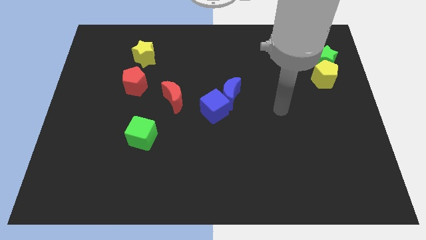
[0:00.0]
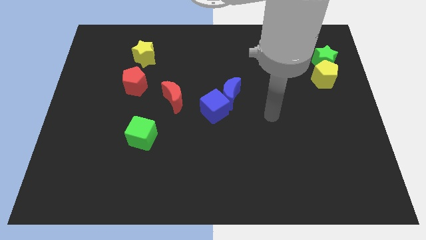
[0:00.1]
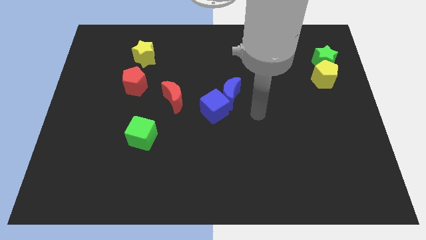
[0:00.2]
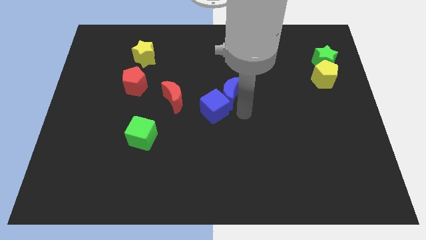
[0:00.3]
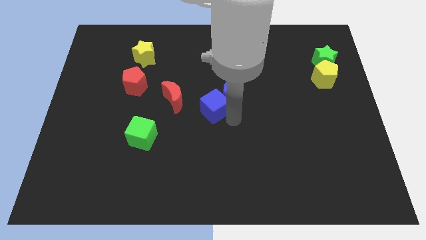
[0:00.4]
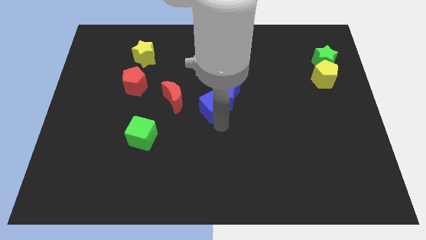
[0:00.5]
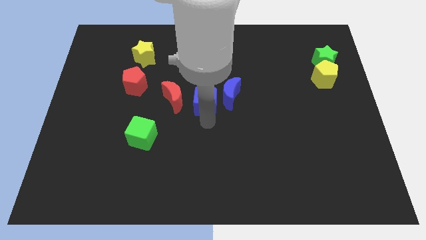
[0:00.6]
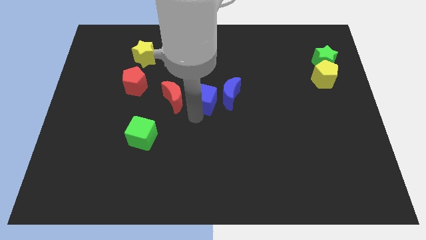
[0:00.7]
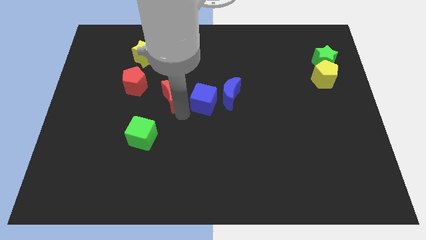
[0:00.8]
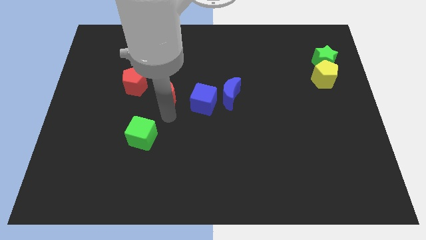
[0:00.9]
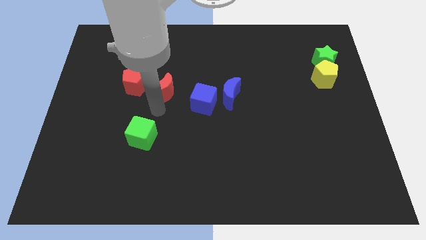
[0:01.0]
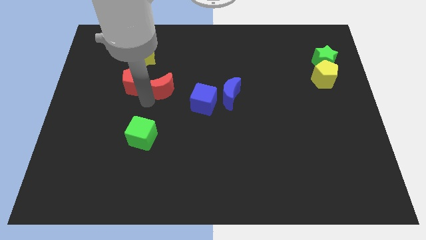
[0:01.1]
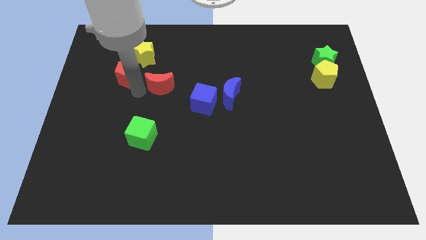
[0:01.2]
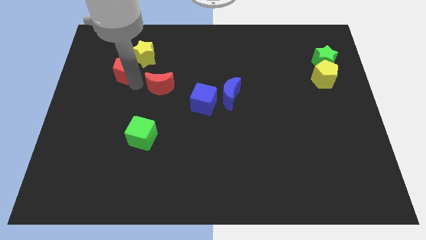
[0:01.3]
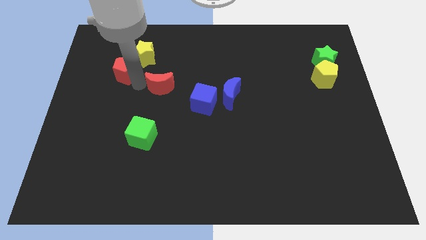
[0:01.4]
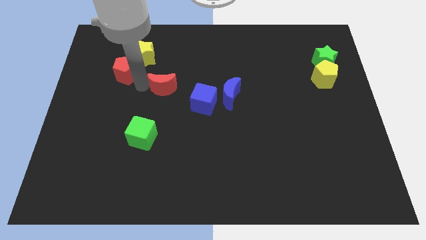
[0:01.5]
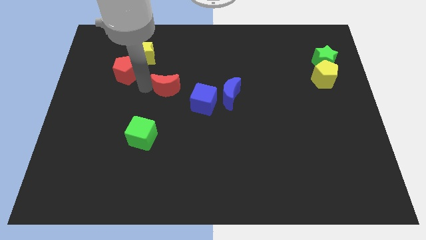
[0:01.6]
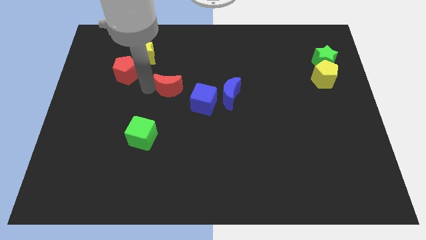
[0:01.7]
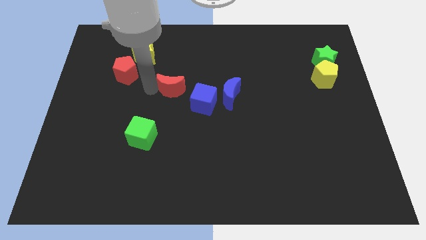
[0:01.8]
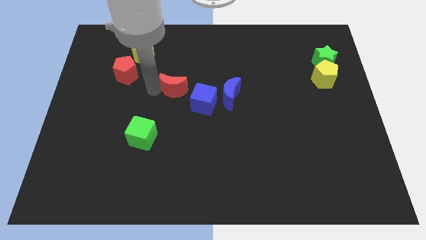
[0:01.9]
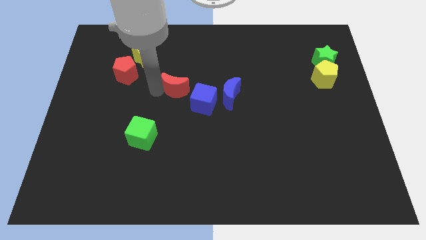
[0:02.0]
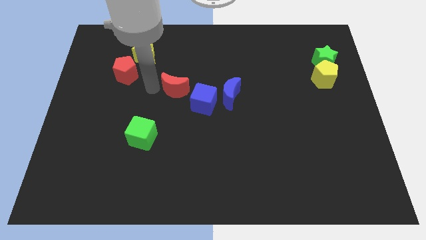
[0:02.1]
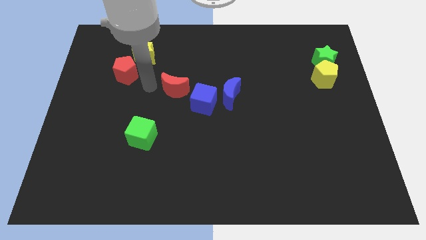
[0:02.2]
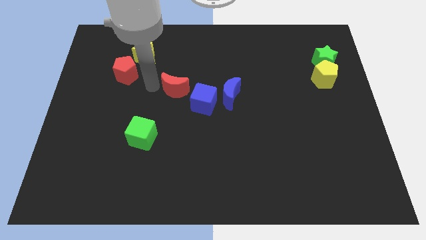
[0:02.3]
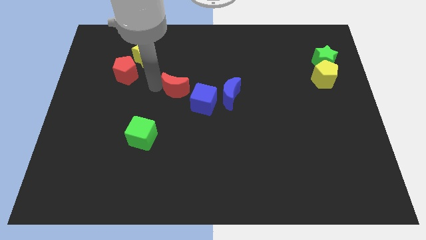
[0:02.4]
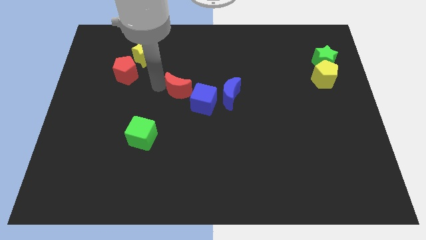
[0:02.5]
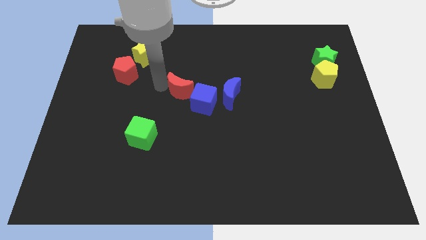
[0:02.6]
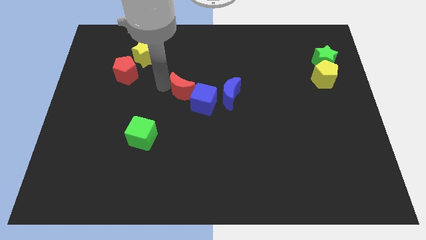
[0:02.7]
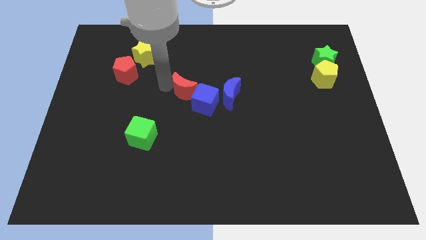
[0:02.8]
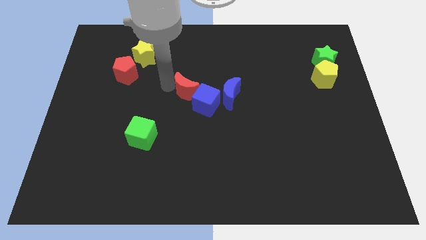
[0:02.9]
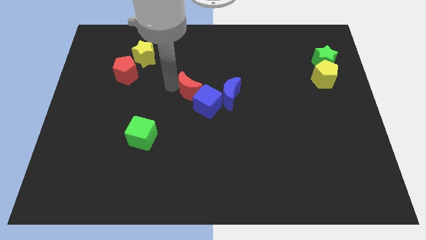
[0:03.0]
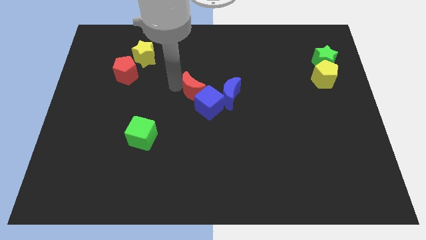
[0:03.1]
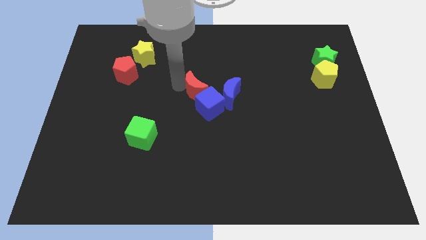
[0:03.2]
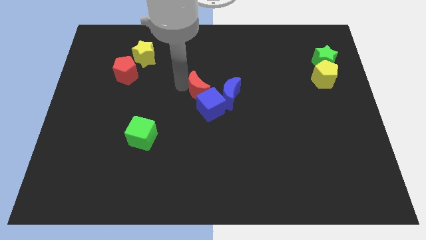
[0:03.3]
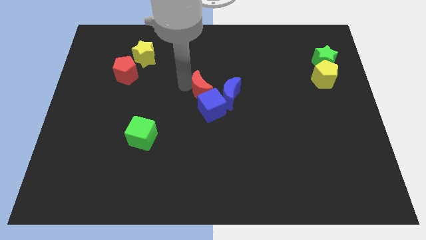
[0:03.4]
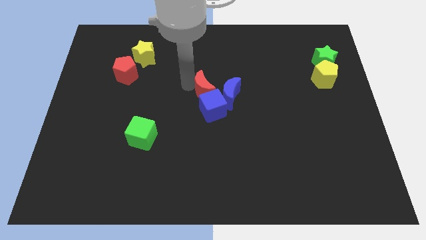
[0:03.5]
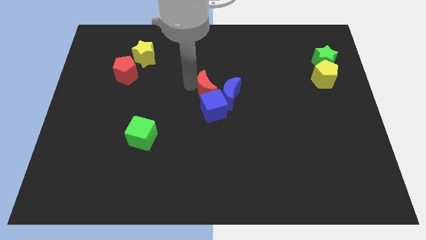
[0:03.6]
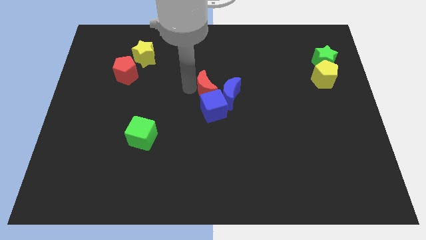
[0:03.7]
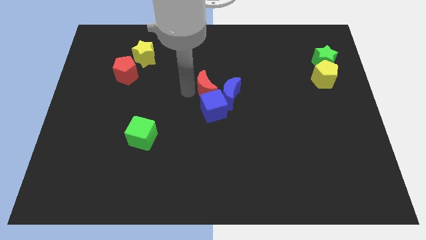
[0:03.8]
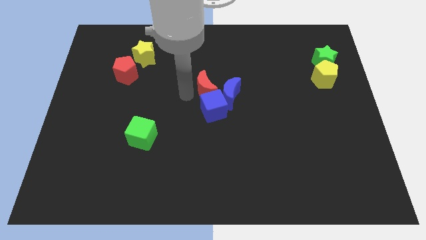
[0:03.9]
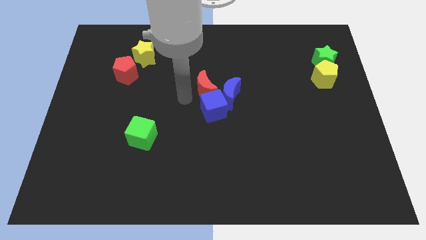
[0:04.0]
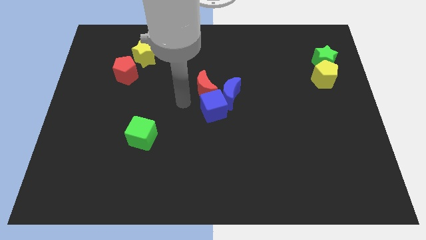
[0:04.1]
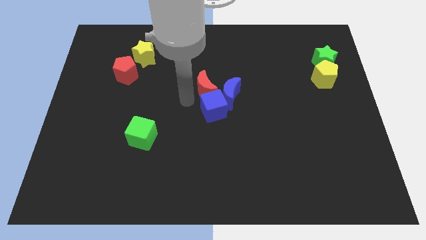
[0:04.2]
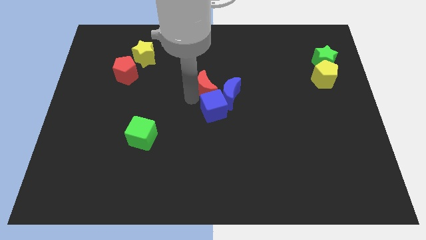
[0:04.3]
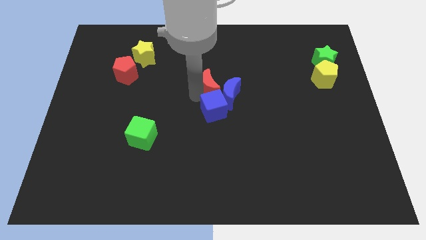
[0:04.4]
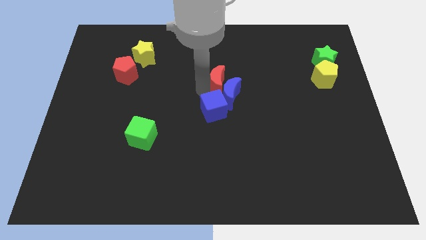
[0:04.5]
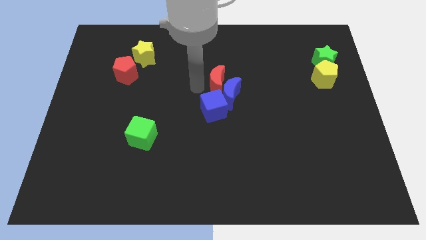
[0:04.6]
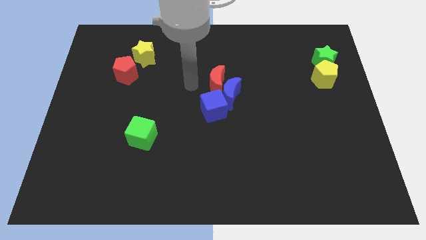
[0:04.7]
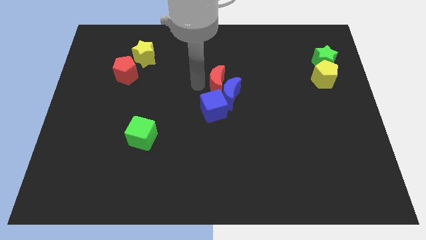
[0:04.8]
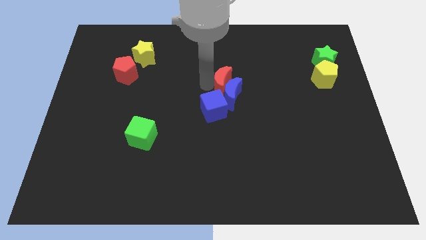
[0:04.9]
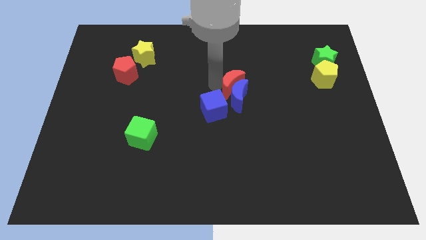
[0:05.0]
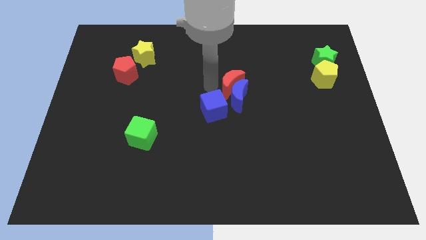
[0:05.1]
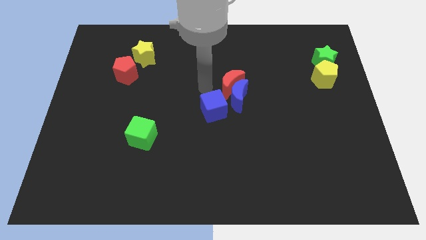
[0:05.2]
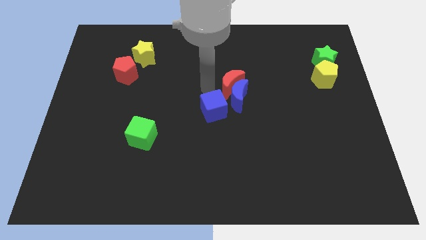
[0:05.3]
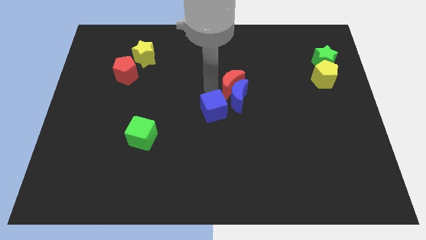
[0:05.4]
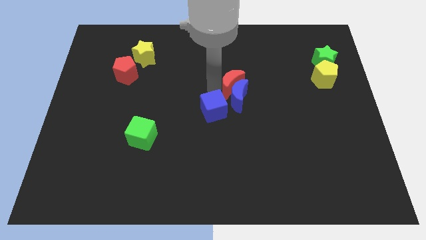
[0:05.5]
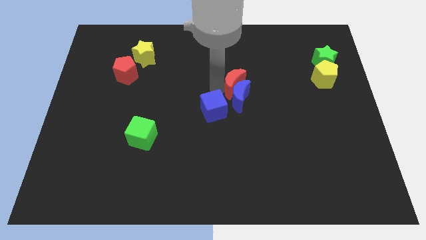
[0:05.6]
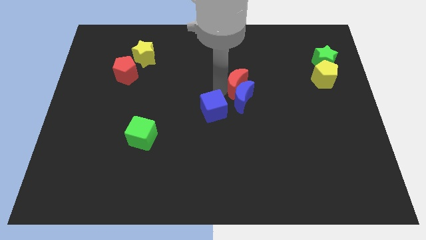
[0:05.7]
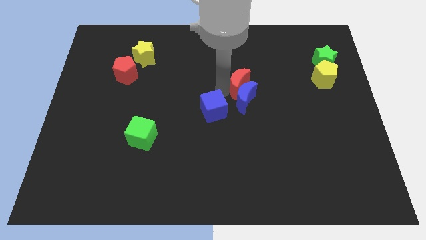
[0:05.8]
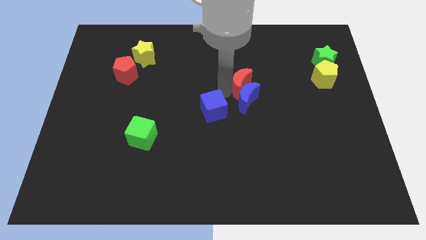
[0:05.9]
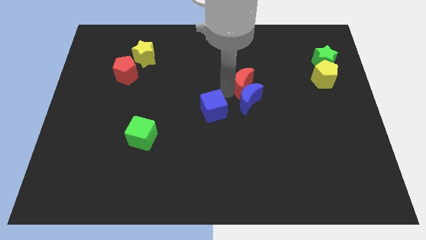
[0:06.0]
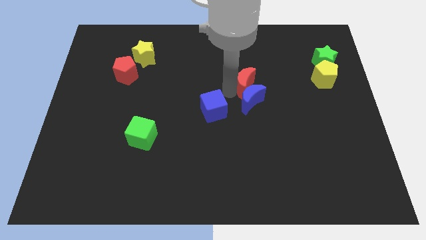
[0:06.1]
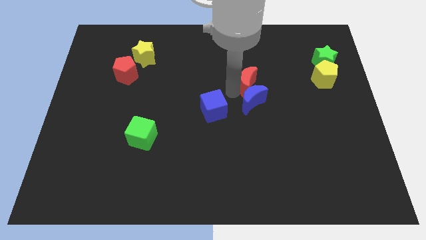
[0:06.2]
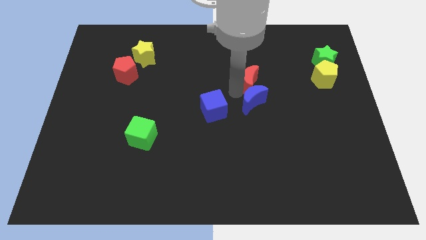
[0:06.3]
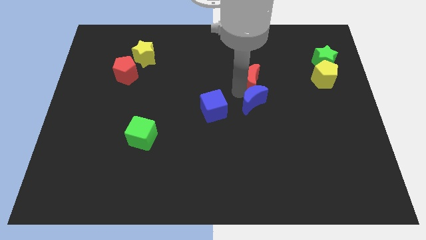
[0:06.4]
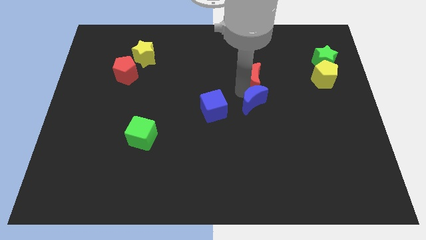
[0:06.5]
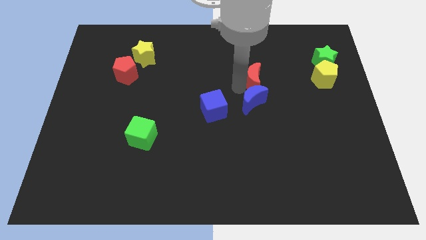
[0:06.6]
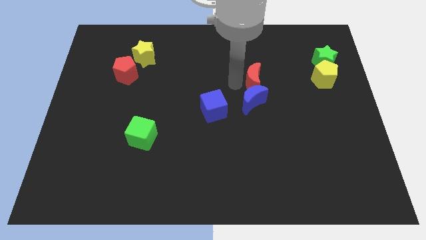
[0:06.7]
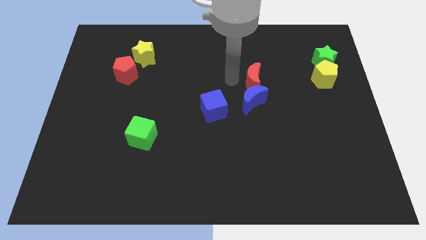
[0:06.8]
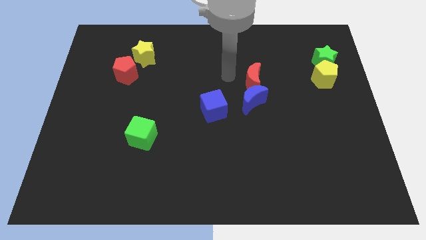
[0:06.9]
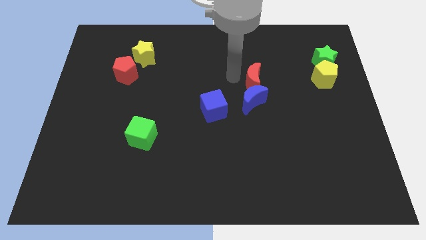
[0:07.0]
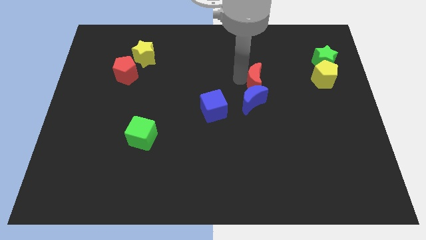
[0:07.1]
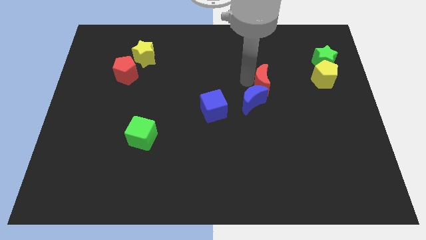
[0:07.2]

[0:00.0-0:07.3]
slide the red moon right

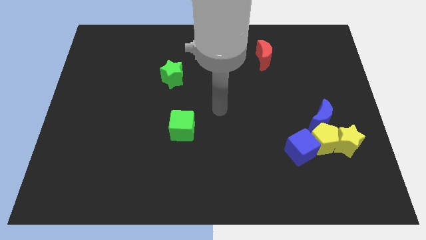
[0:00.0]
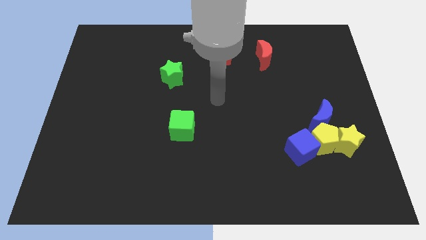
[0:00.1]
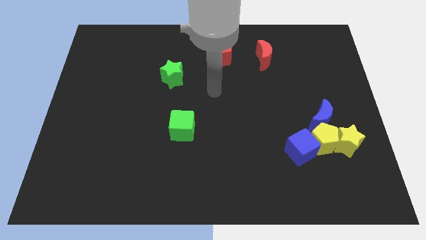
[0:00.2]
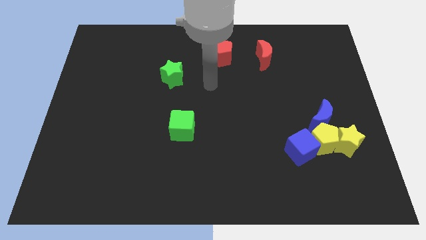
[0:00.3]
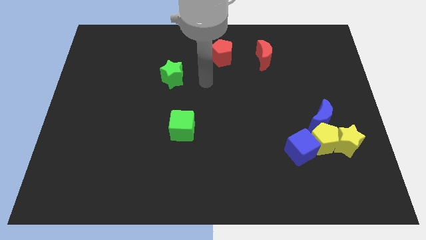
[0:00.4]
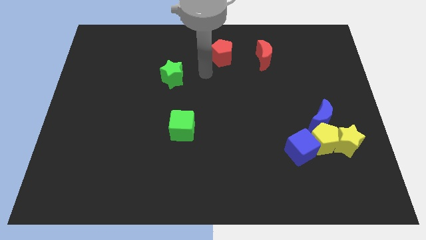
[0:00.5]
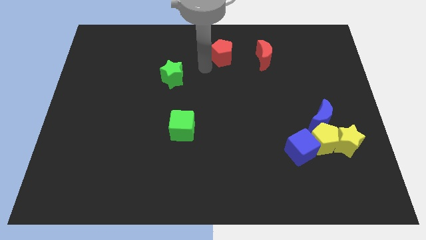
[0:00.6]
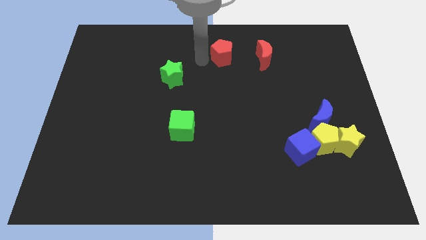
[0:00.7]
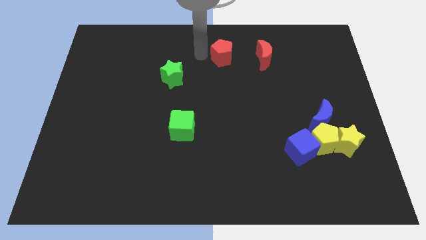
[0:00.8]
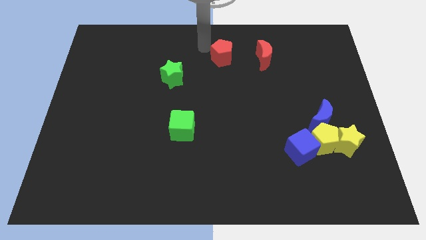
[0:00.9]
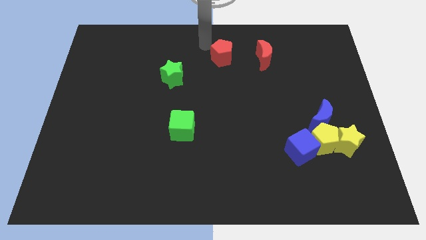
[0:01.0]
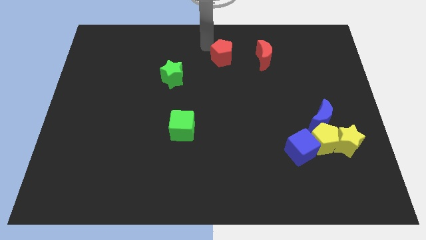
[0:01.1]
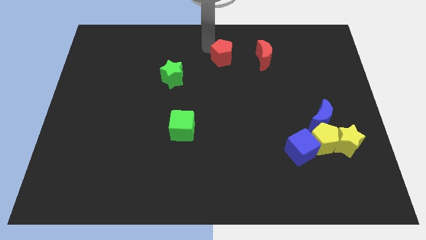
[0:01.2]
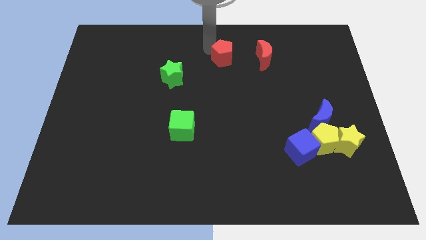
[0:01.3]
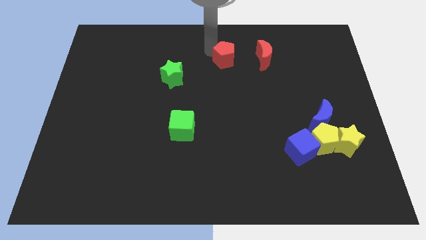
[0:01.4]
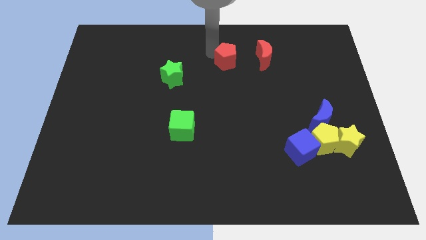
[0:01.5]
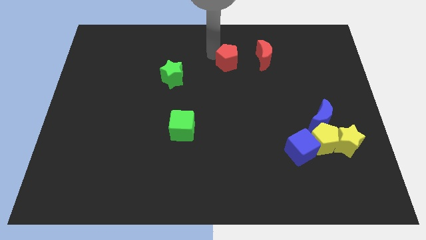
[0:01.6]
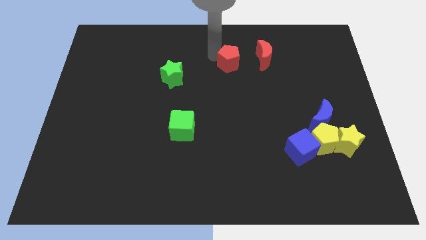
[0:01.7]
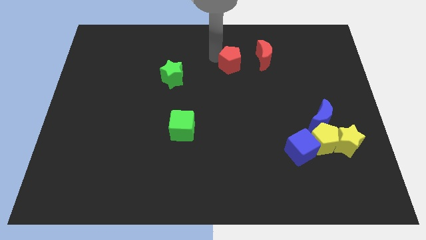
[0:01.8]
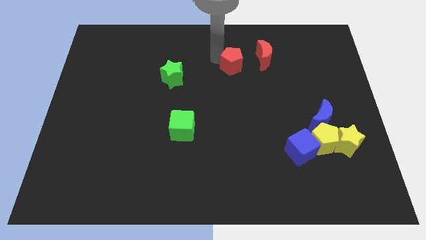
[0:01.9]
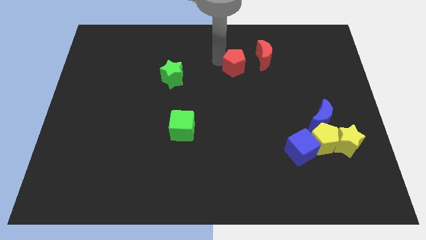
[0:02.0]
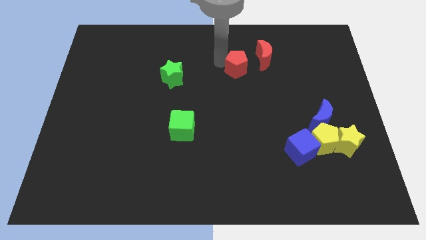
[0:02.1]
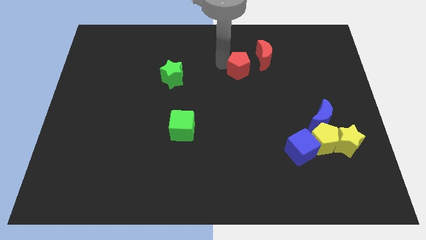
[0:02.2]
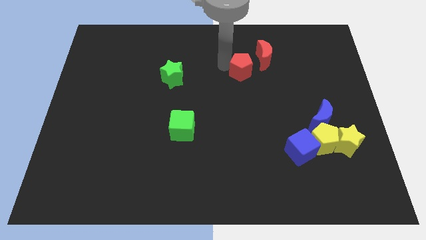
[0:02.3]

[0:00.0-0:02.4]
move the red pentagon slightly downwards and to the right diagonally
